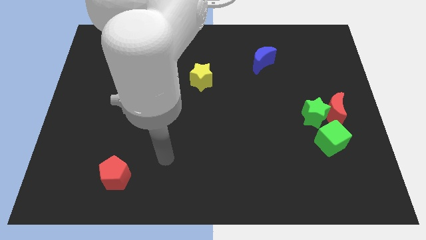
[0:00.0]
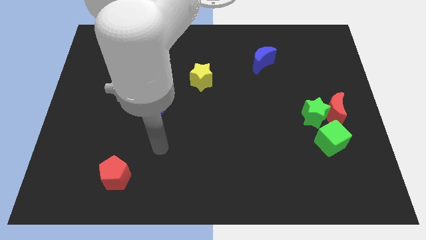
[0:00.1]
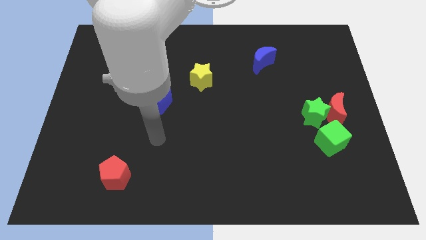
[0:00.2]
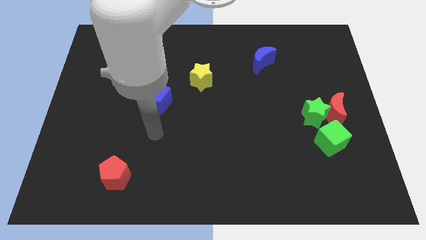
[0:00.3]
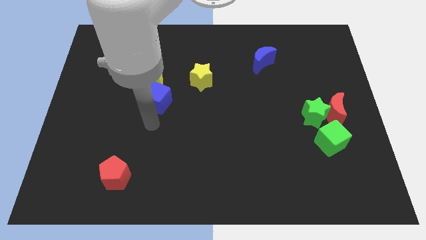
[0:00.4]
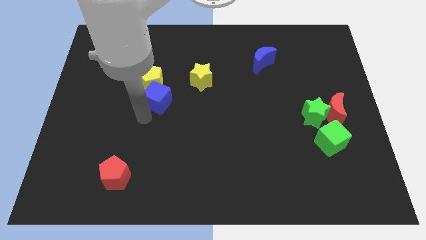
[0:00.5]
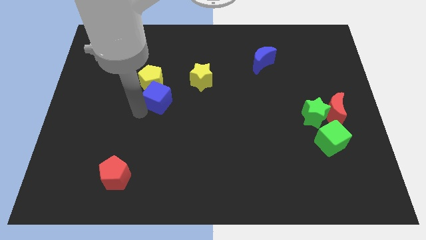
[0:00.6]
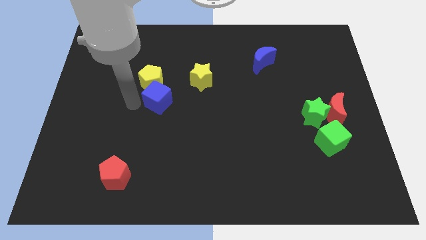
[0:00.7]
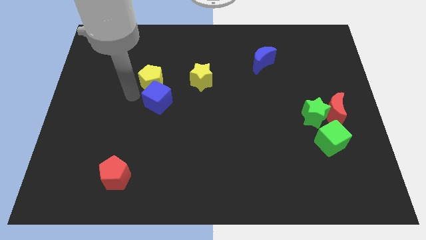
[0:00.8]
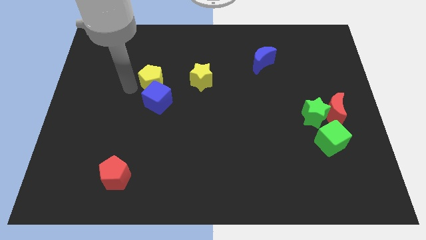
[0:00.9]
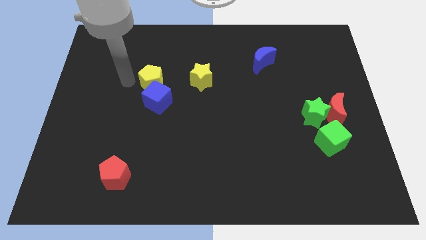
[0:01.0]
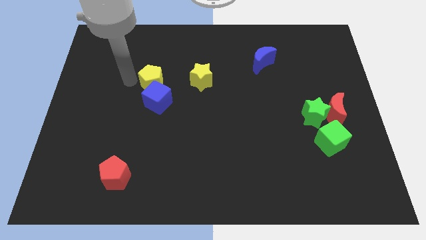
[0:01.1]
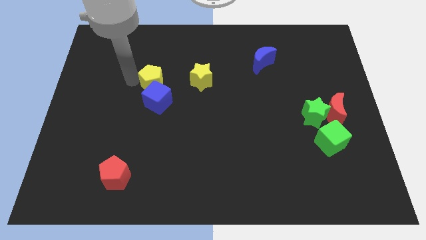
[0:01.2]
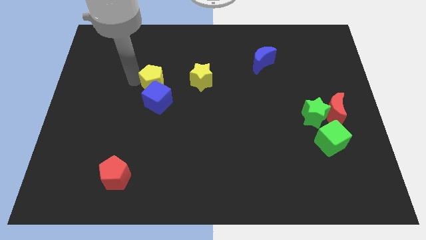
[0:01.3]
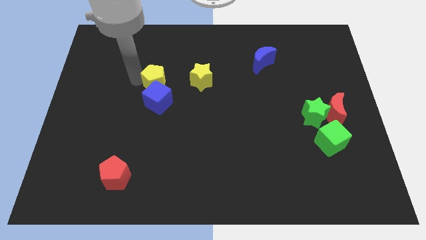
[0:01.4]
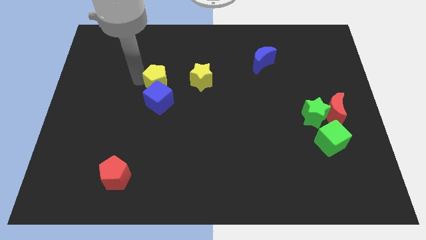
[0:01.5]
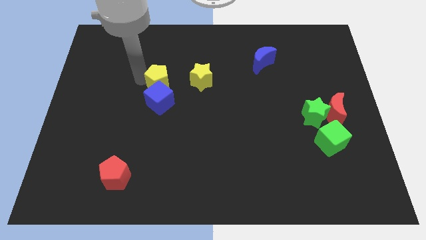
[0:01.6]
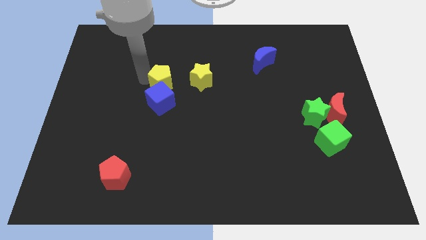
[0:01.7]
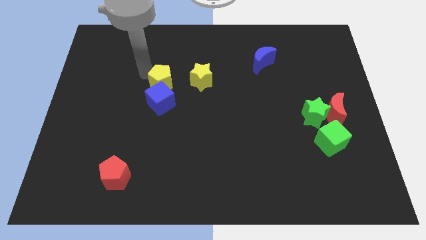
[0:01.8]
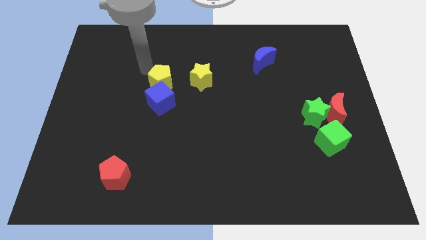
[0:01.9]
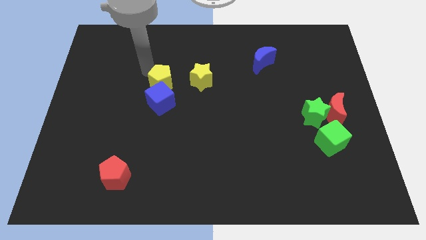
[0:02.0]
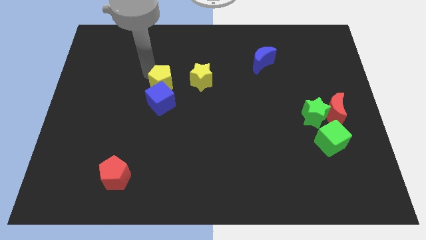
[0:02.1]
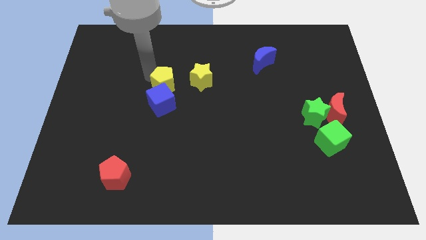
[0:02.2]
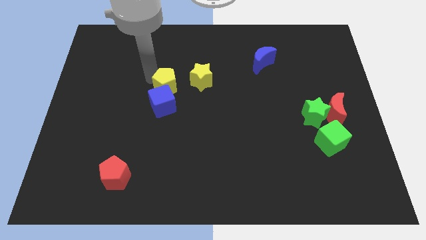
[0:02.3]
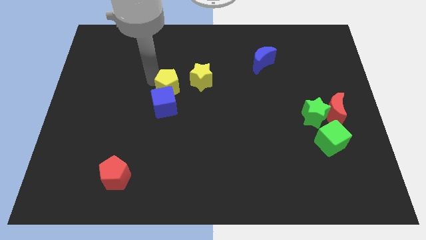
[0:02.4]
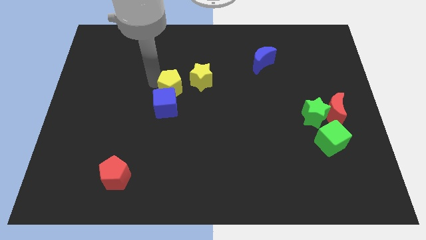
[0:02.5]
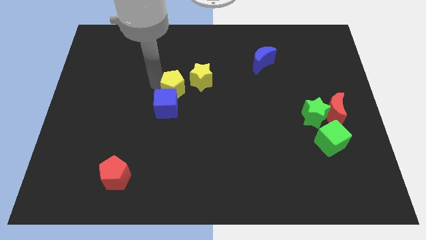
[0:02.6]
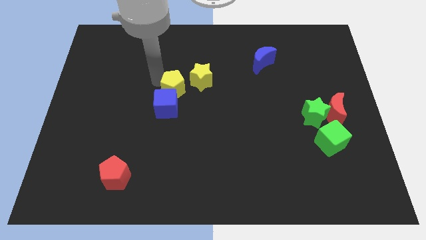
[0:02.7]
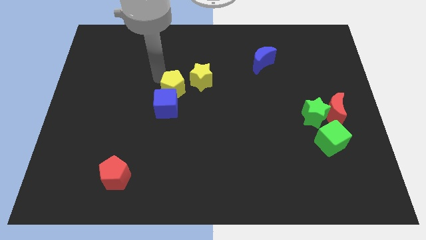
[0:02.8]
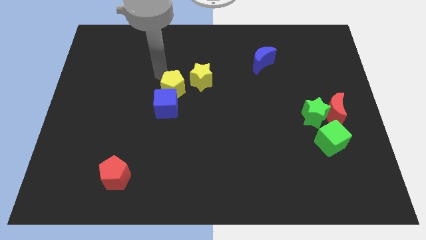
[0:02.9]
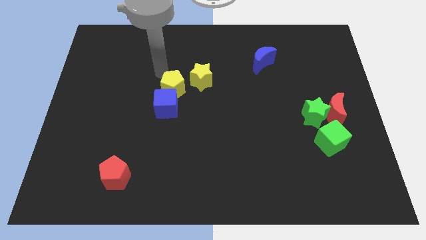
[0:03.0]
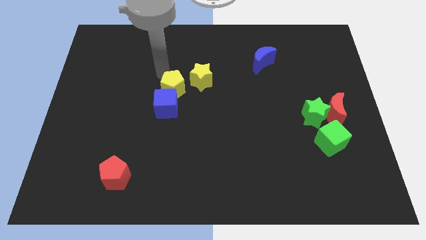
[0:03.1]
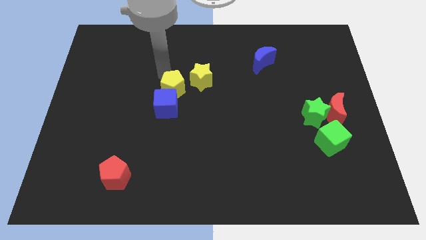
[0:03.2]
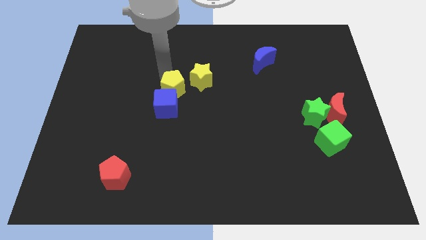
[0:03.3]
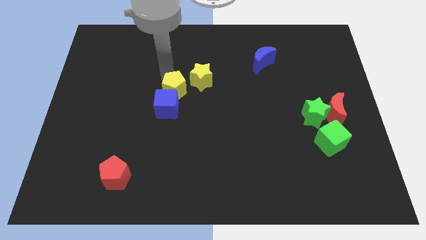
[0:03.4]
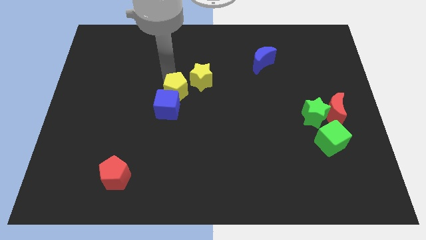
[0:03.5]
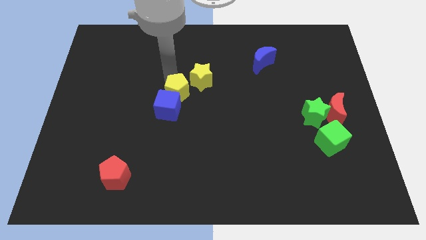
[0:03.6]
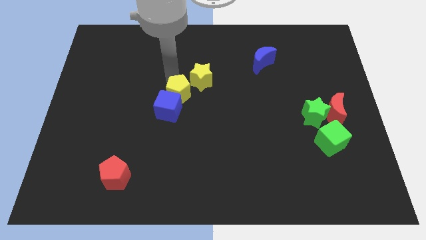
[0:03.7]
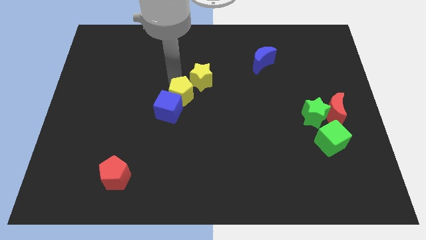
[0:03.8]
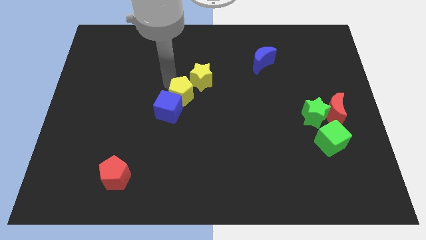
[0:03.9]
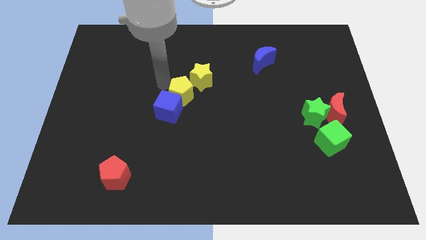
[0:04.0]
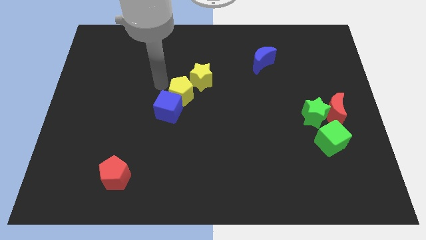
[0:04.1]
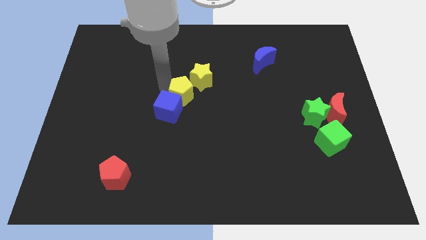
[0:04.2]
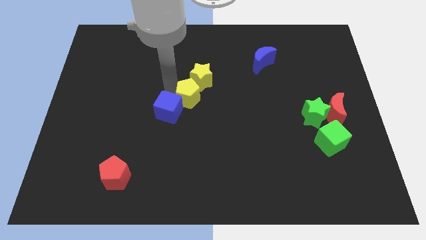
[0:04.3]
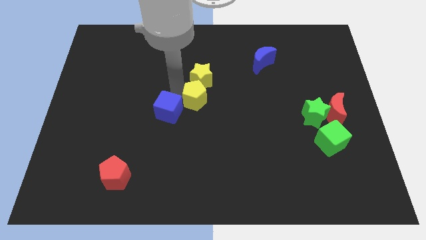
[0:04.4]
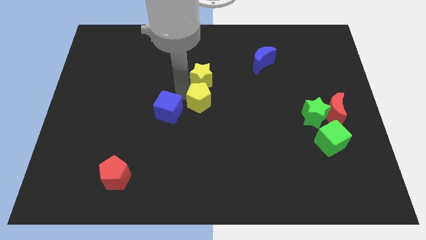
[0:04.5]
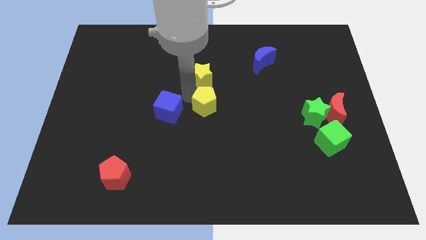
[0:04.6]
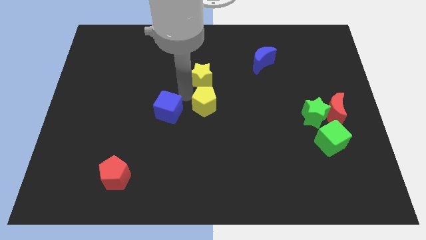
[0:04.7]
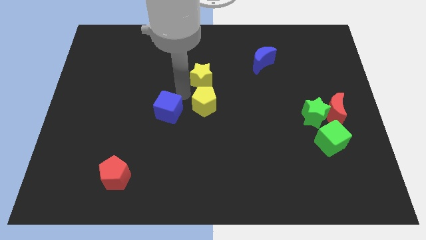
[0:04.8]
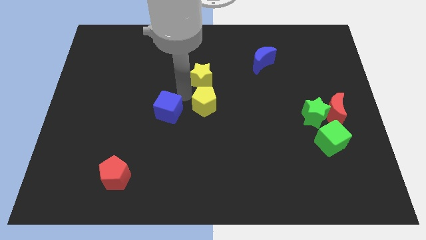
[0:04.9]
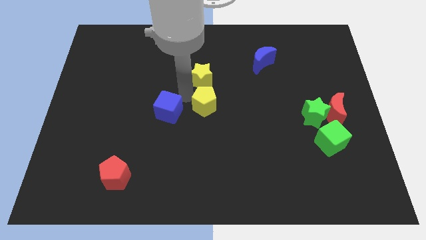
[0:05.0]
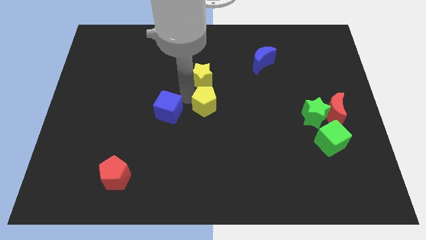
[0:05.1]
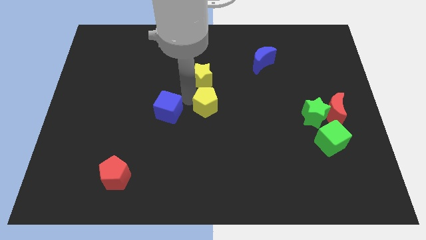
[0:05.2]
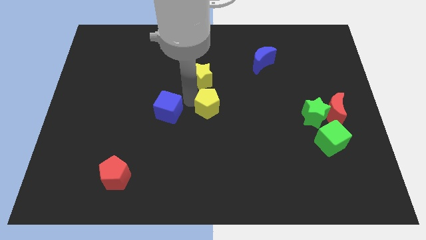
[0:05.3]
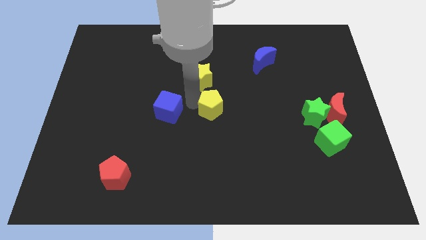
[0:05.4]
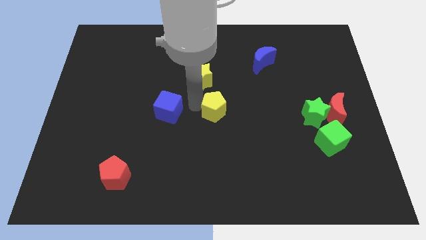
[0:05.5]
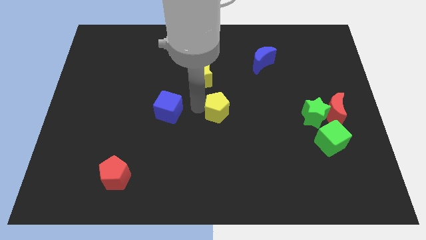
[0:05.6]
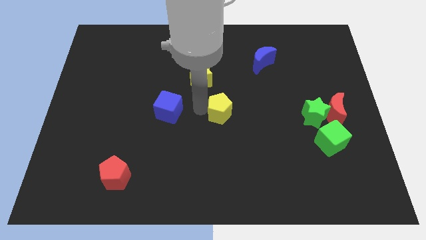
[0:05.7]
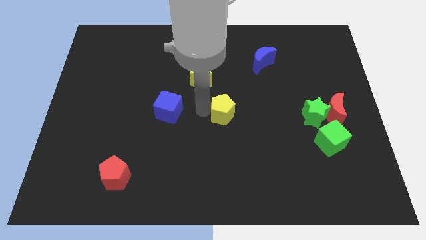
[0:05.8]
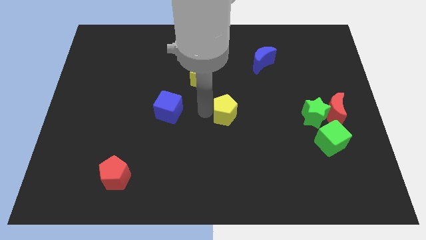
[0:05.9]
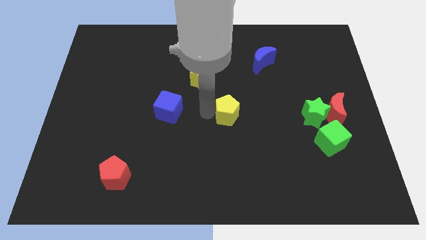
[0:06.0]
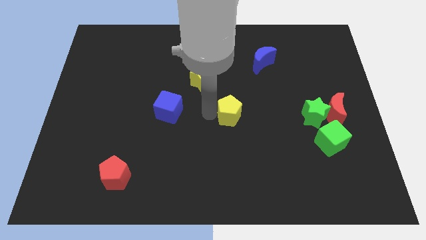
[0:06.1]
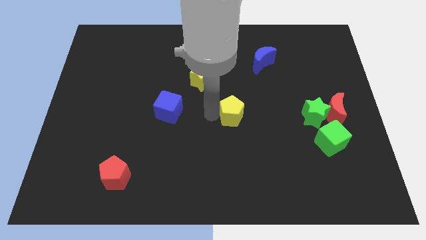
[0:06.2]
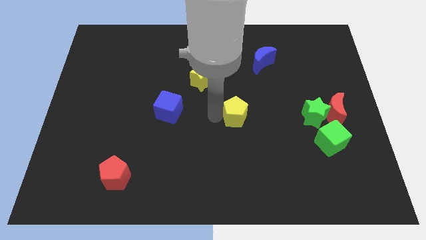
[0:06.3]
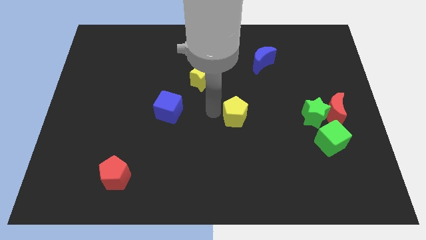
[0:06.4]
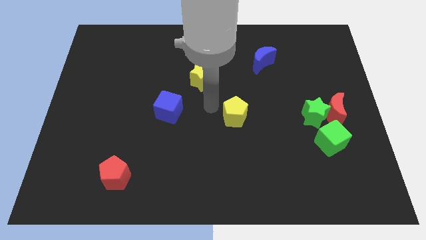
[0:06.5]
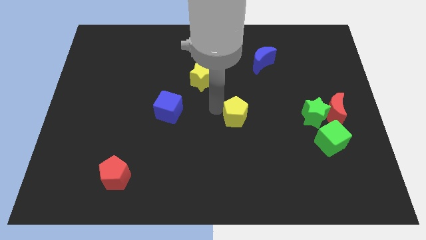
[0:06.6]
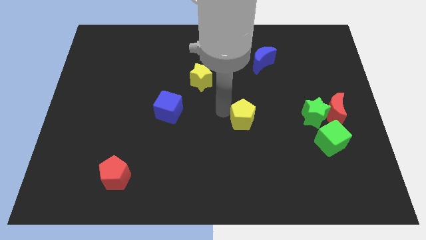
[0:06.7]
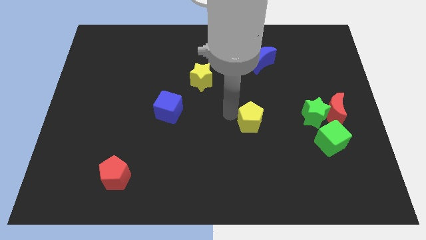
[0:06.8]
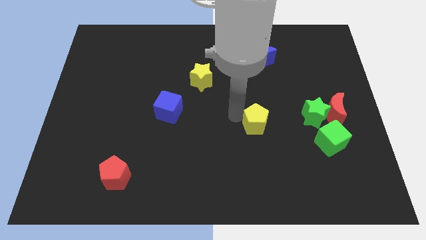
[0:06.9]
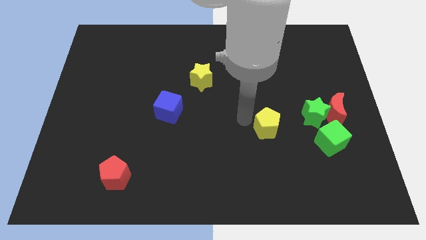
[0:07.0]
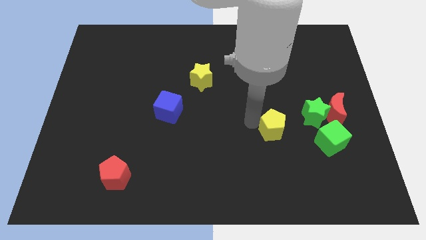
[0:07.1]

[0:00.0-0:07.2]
push the yellow pentagon to the bottom left of the green star
